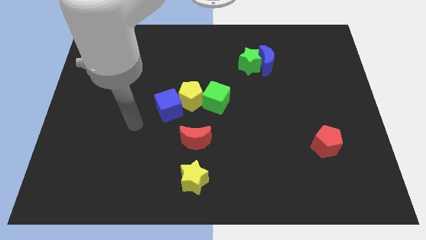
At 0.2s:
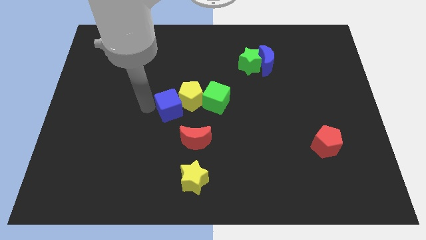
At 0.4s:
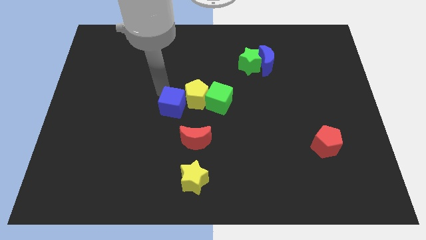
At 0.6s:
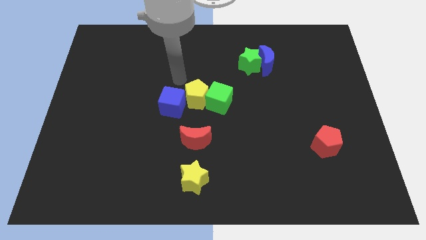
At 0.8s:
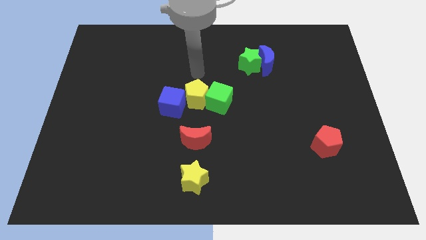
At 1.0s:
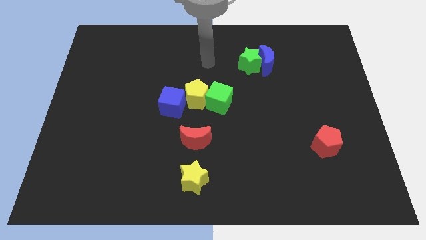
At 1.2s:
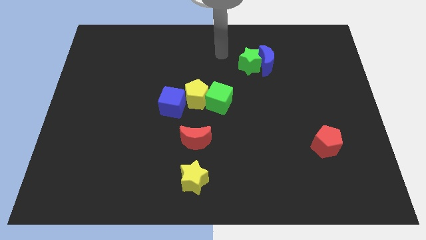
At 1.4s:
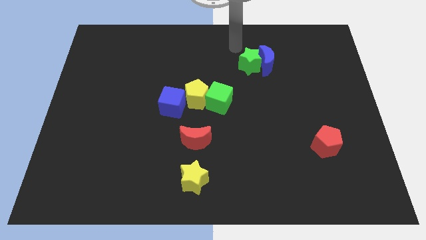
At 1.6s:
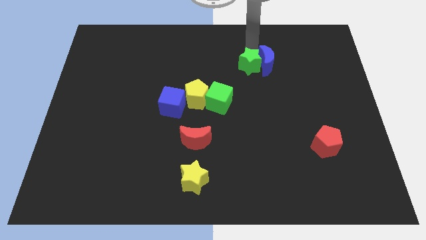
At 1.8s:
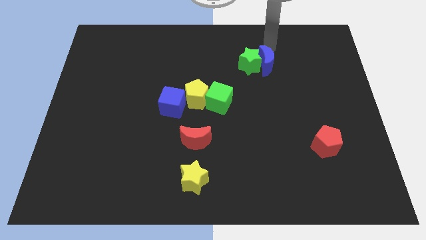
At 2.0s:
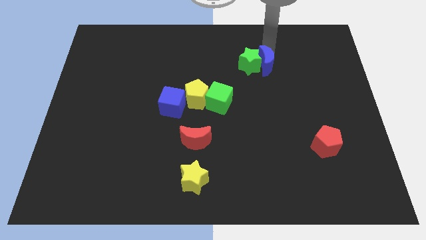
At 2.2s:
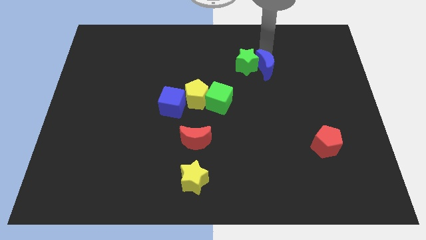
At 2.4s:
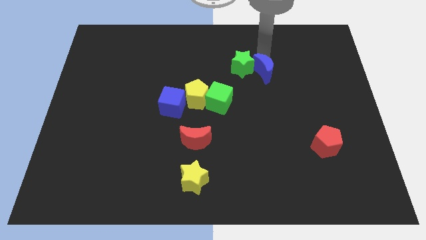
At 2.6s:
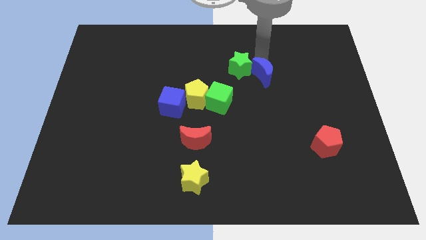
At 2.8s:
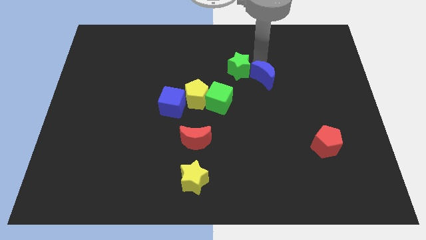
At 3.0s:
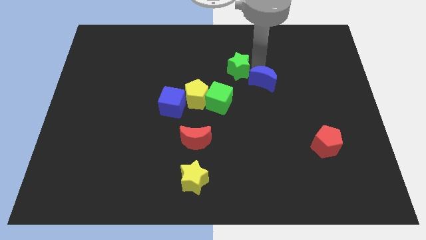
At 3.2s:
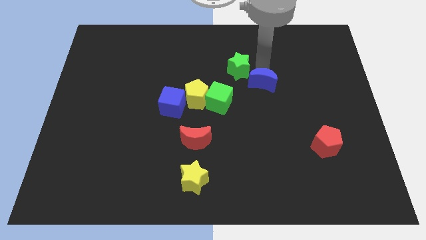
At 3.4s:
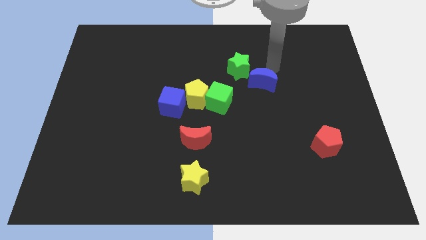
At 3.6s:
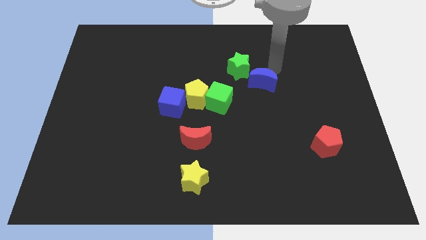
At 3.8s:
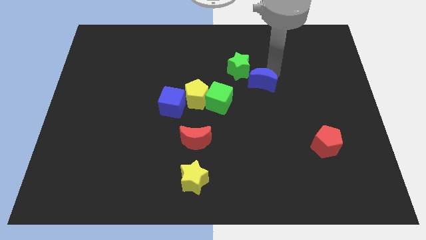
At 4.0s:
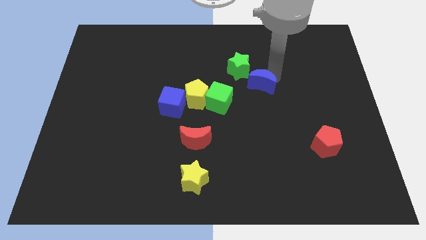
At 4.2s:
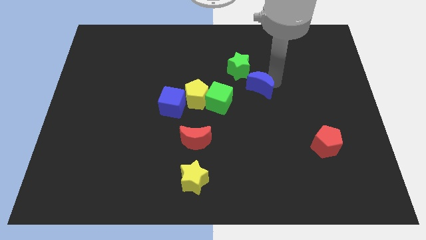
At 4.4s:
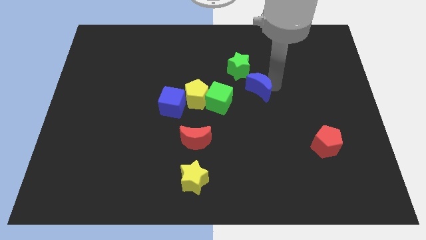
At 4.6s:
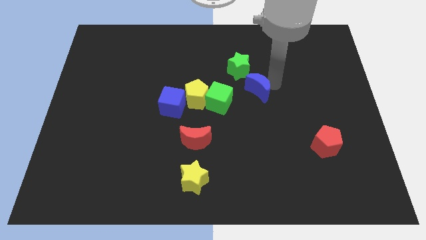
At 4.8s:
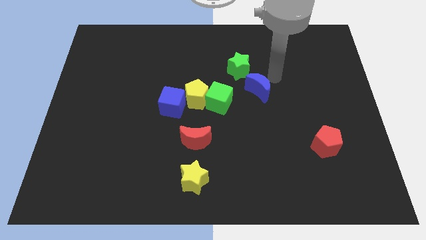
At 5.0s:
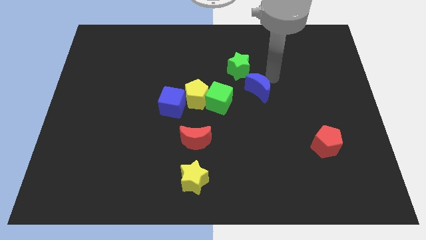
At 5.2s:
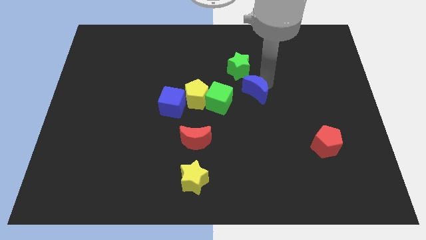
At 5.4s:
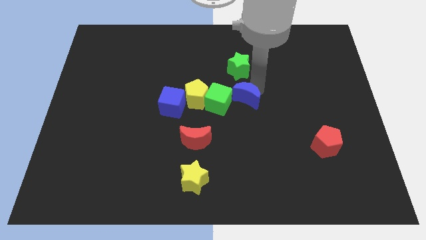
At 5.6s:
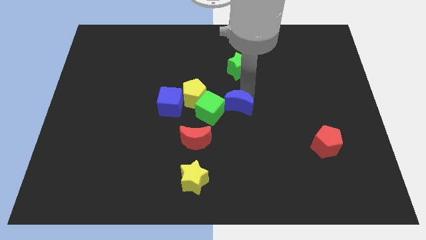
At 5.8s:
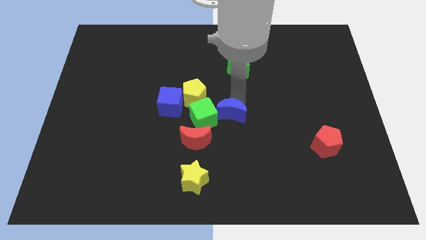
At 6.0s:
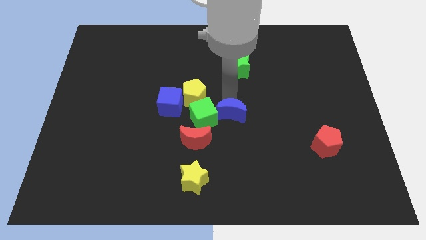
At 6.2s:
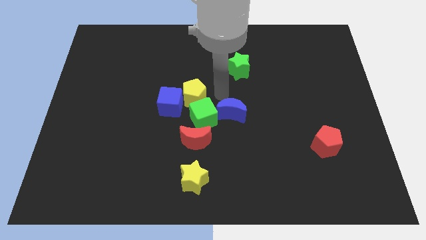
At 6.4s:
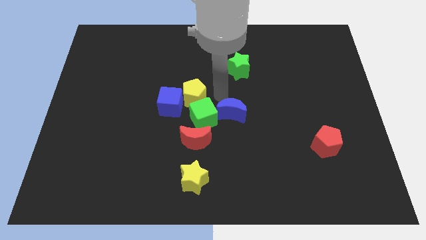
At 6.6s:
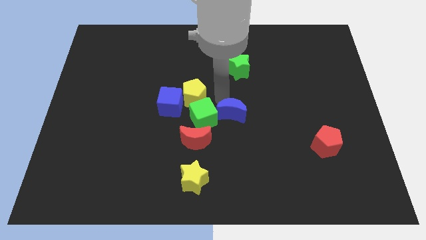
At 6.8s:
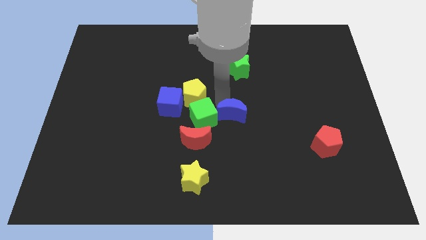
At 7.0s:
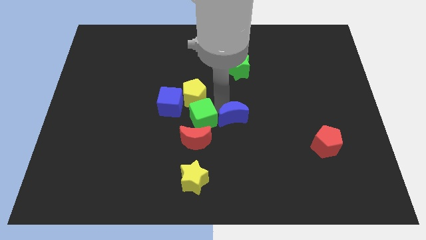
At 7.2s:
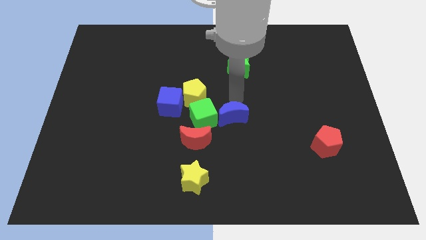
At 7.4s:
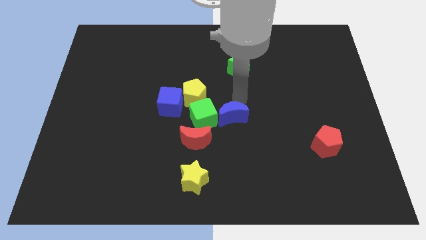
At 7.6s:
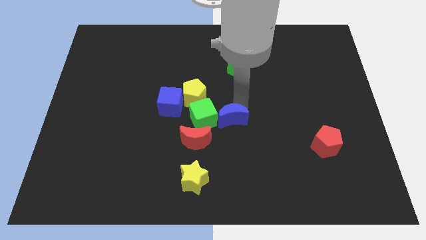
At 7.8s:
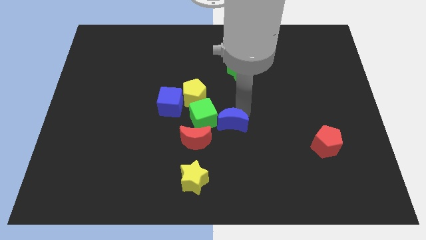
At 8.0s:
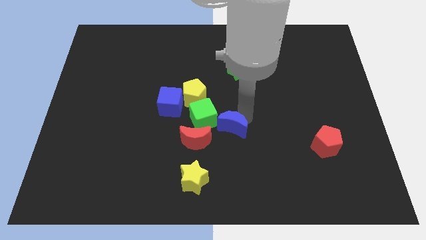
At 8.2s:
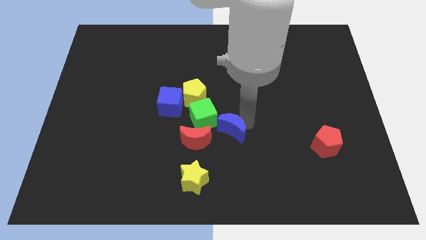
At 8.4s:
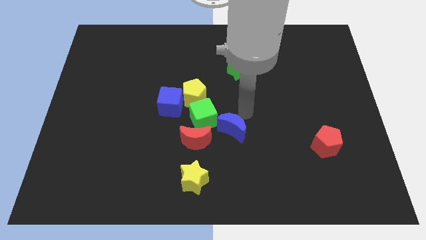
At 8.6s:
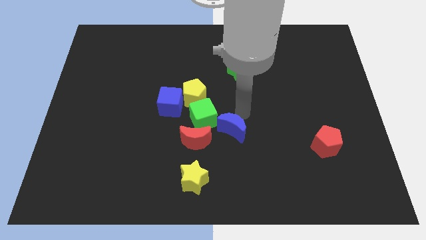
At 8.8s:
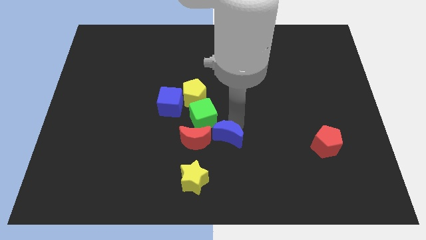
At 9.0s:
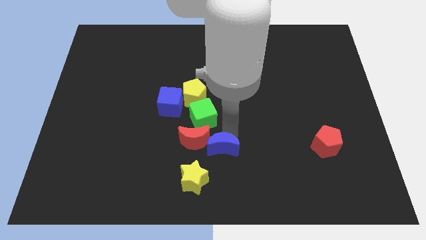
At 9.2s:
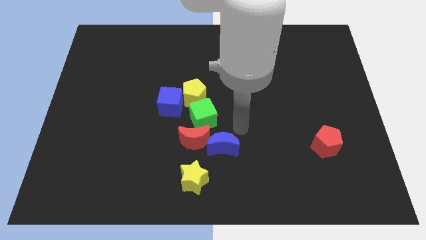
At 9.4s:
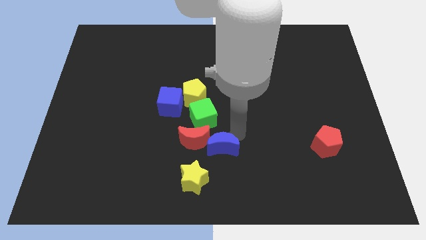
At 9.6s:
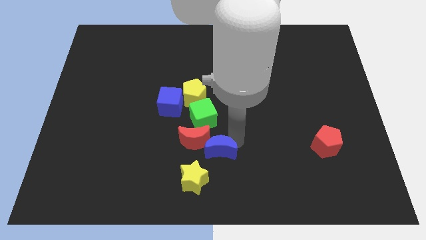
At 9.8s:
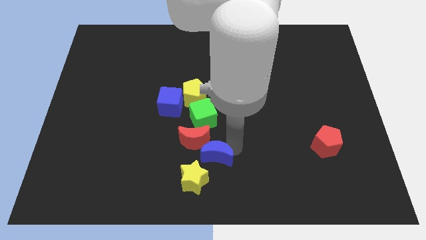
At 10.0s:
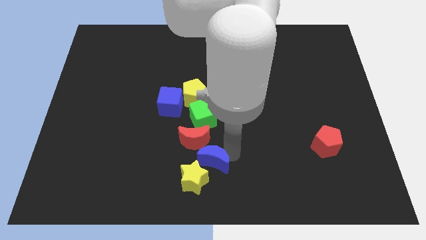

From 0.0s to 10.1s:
push the blue moon towards the yellow star

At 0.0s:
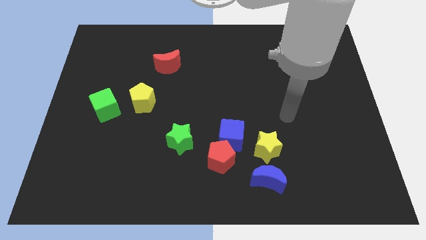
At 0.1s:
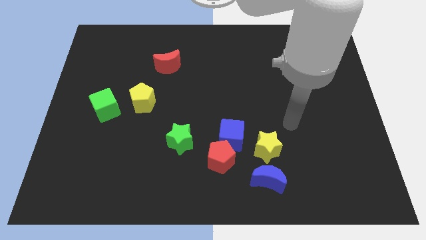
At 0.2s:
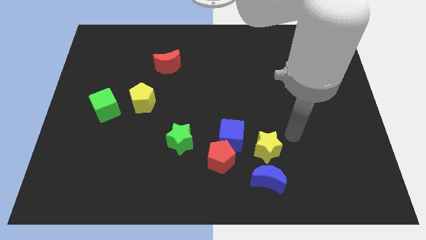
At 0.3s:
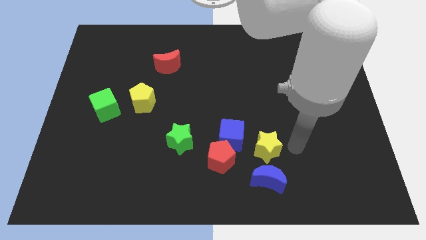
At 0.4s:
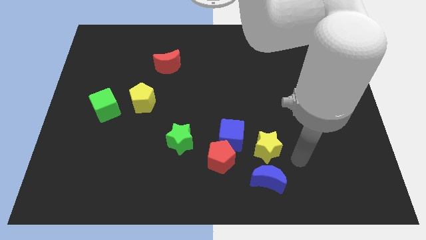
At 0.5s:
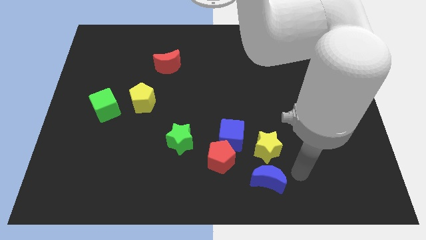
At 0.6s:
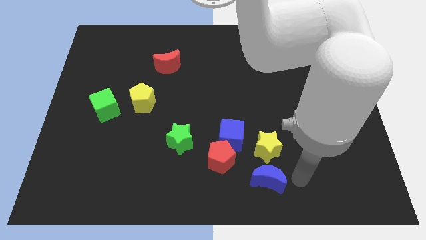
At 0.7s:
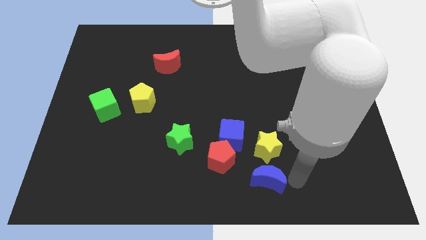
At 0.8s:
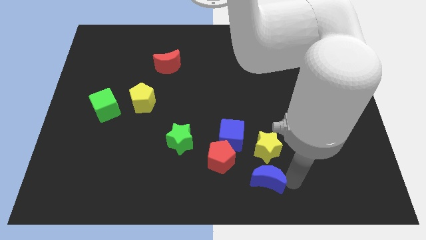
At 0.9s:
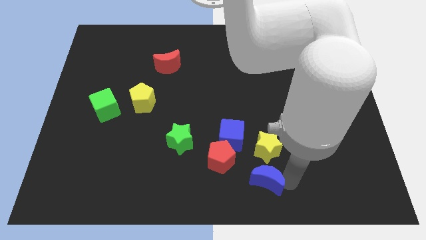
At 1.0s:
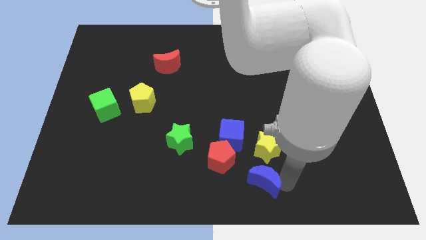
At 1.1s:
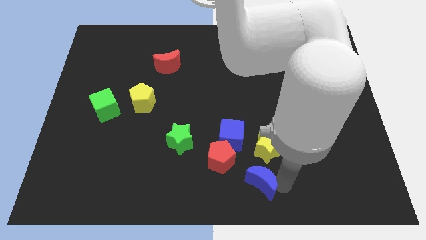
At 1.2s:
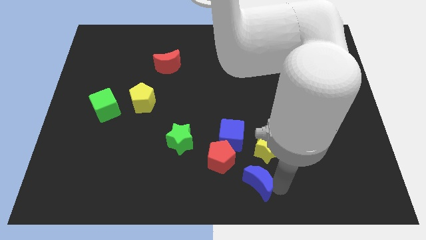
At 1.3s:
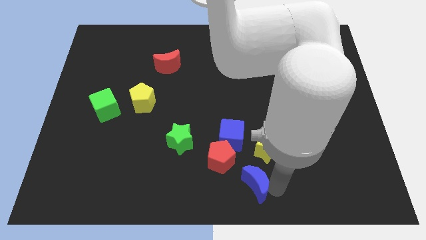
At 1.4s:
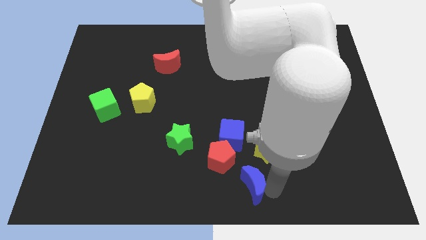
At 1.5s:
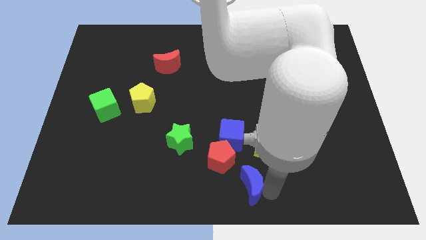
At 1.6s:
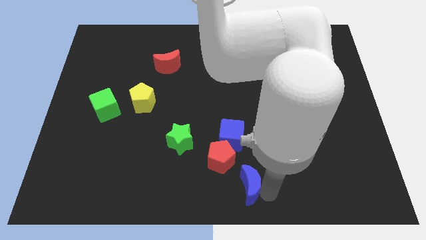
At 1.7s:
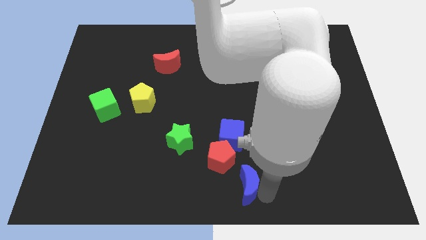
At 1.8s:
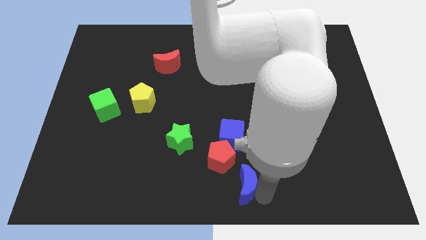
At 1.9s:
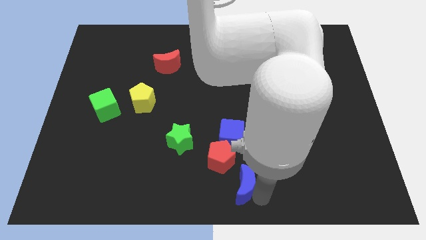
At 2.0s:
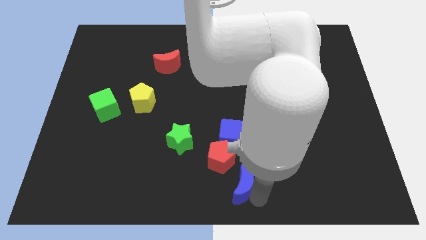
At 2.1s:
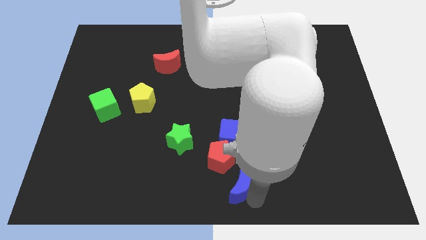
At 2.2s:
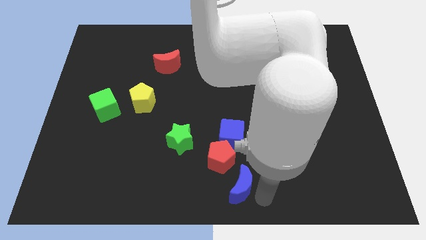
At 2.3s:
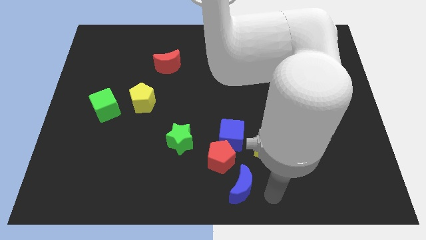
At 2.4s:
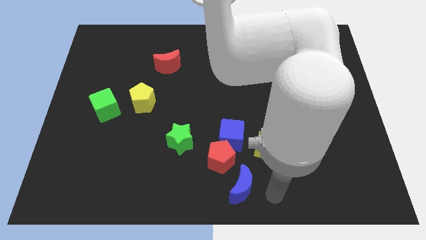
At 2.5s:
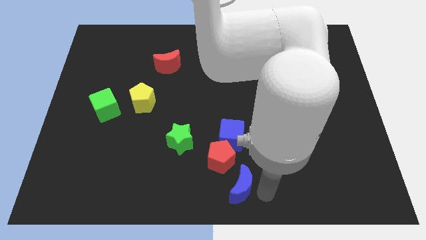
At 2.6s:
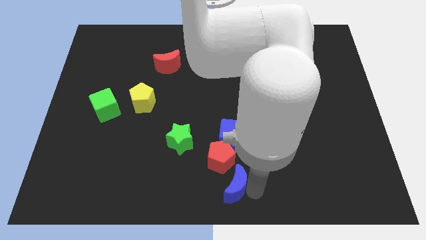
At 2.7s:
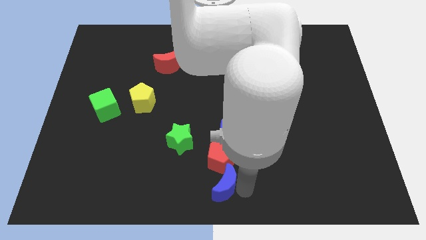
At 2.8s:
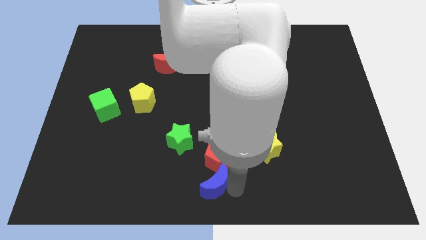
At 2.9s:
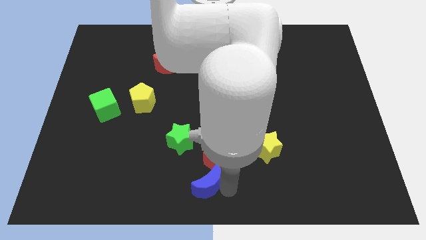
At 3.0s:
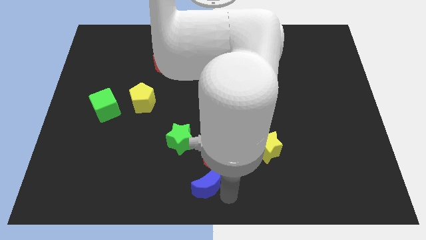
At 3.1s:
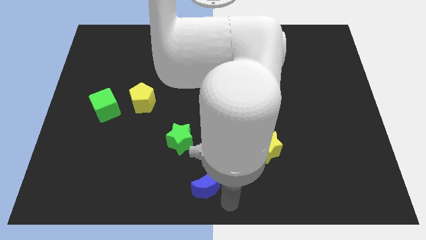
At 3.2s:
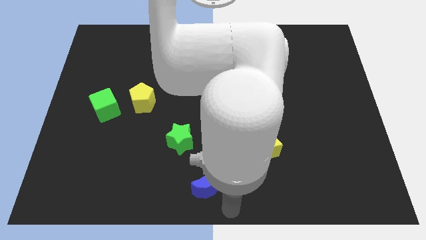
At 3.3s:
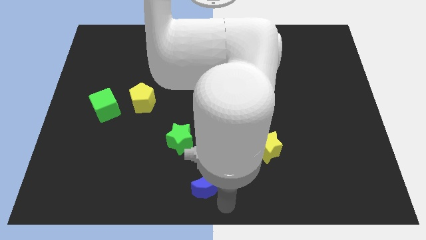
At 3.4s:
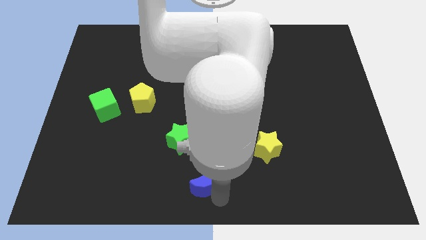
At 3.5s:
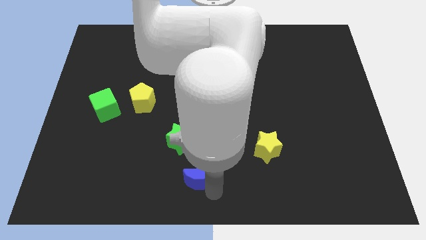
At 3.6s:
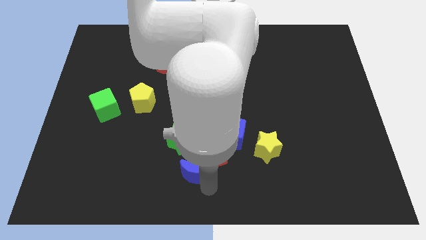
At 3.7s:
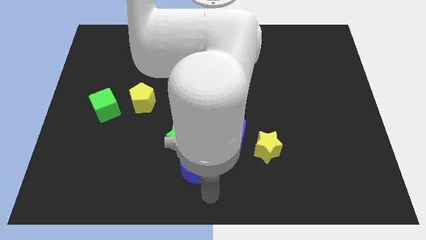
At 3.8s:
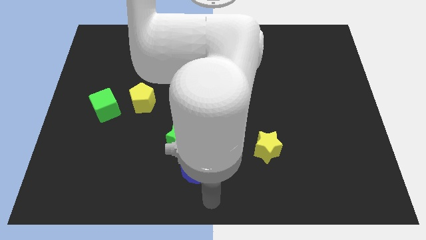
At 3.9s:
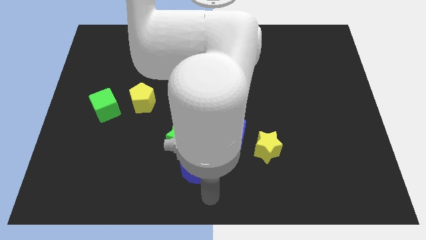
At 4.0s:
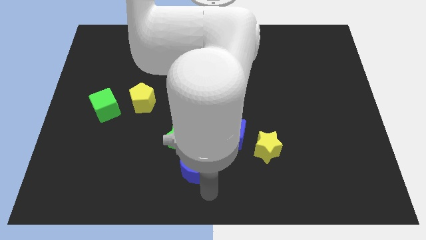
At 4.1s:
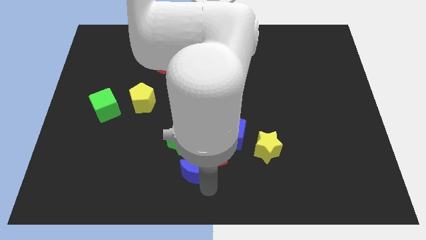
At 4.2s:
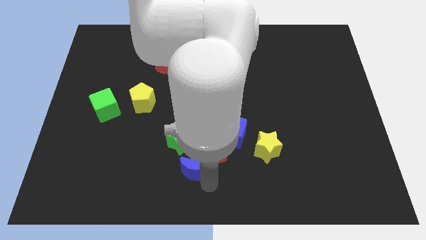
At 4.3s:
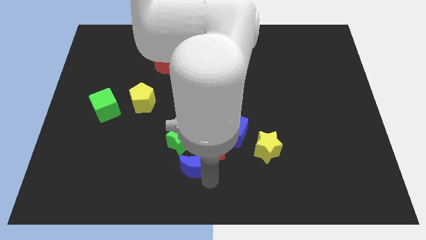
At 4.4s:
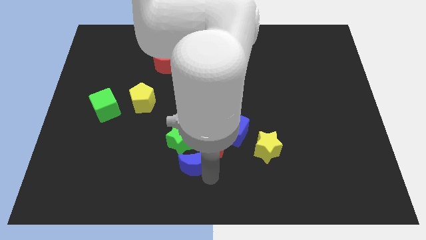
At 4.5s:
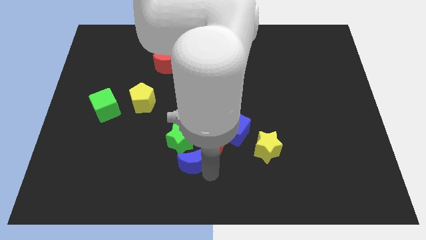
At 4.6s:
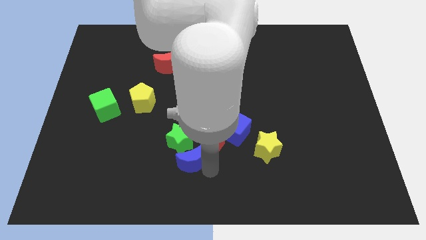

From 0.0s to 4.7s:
slide the blue moon towards the green star
